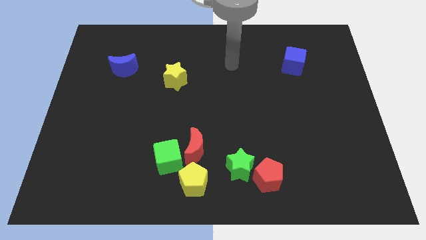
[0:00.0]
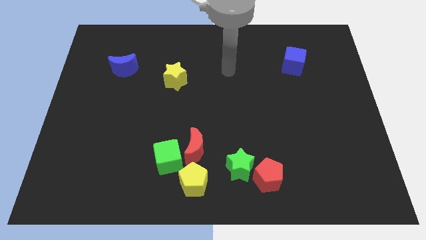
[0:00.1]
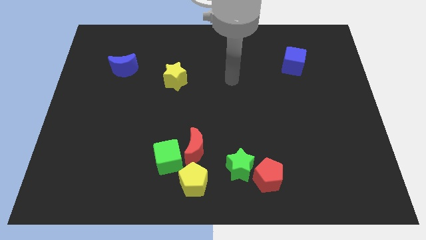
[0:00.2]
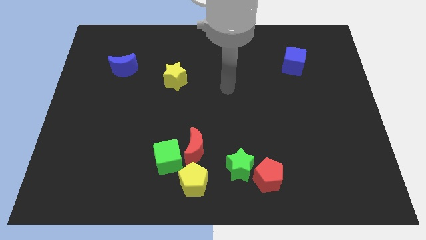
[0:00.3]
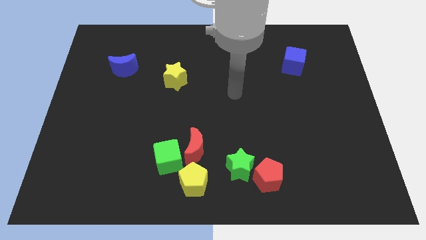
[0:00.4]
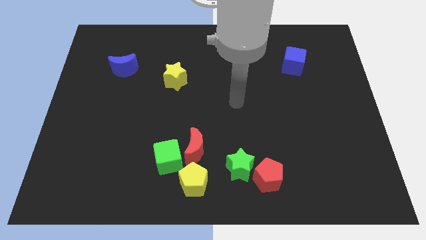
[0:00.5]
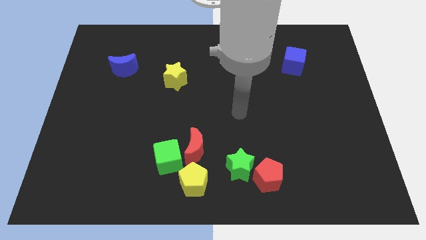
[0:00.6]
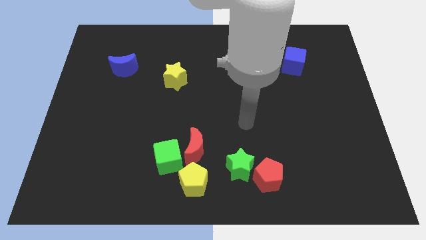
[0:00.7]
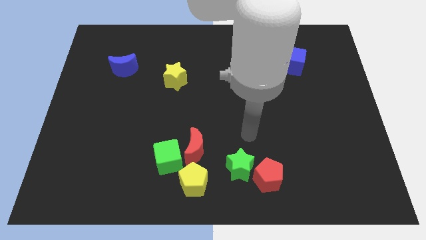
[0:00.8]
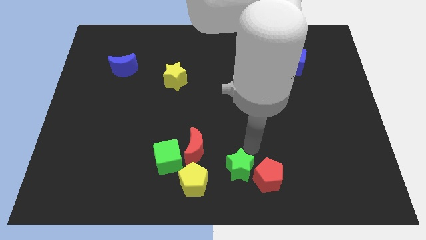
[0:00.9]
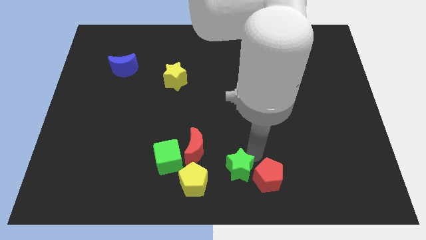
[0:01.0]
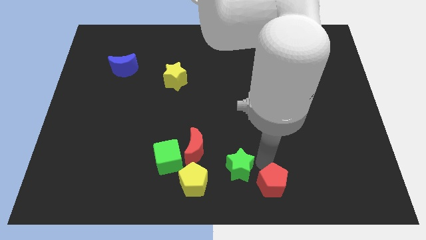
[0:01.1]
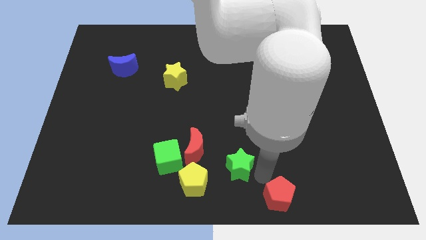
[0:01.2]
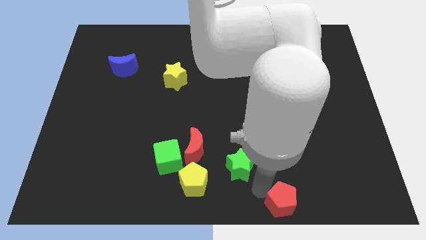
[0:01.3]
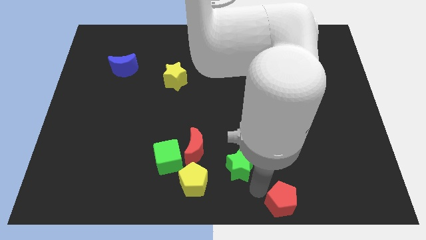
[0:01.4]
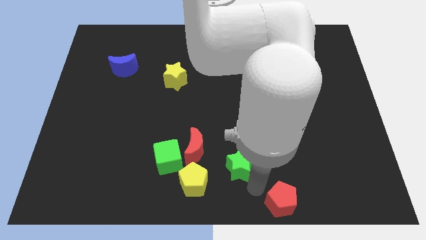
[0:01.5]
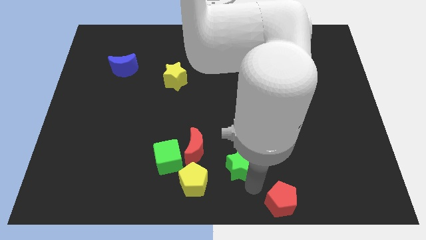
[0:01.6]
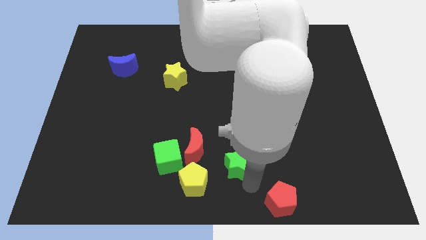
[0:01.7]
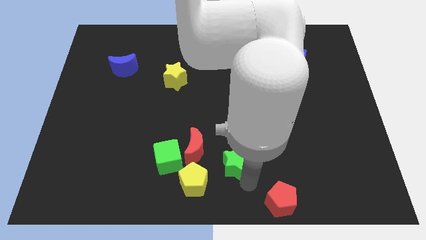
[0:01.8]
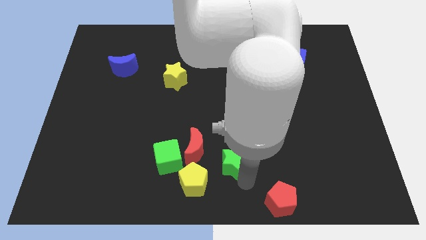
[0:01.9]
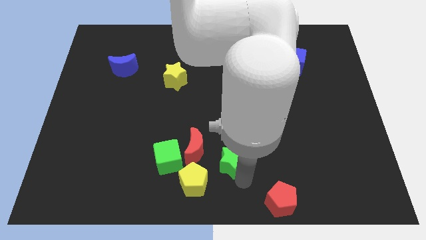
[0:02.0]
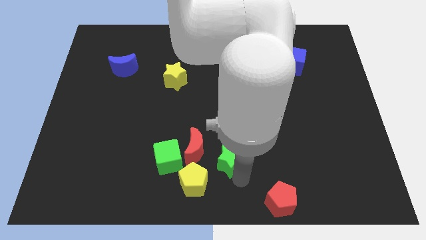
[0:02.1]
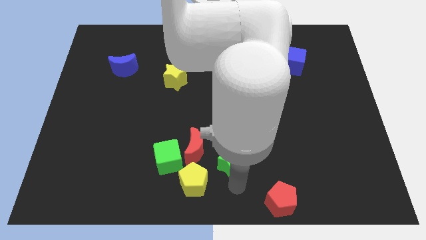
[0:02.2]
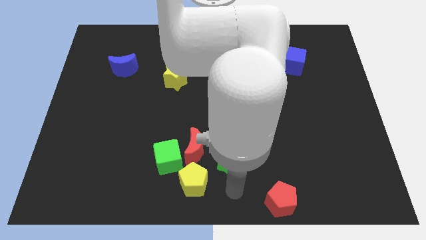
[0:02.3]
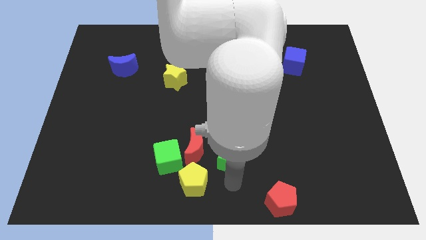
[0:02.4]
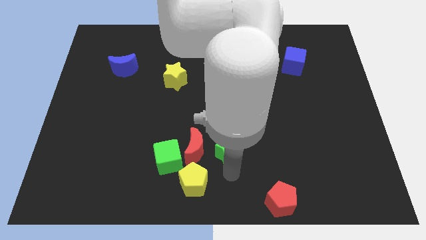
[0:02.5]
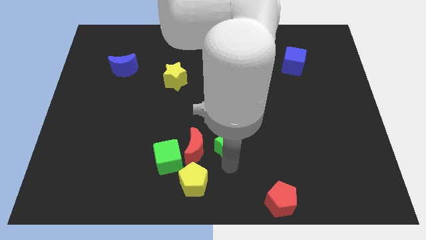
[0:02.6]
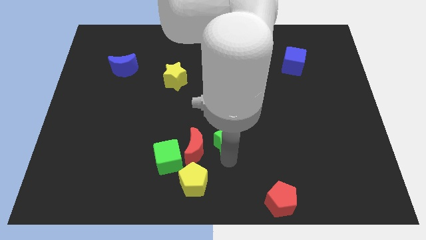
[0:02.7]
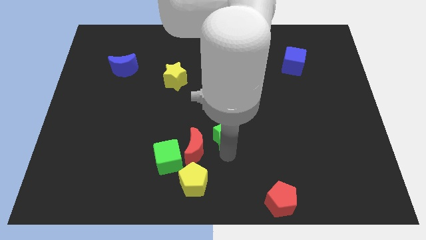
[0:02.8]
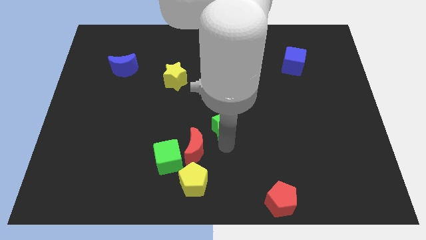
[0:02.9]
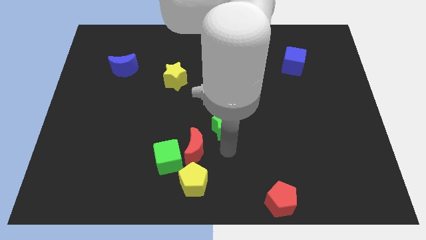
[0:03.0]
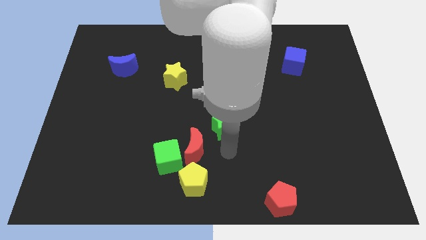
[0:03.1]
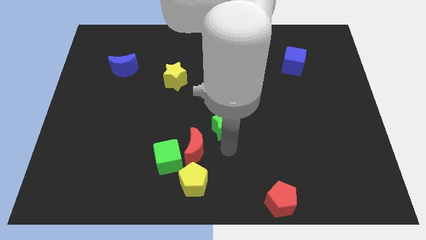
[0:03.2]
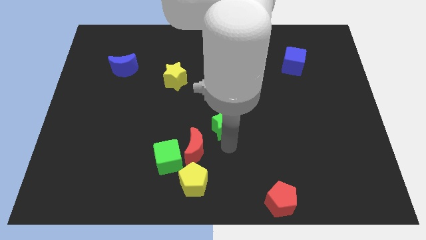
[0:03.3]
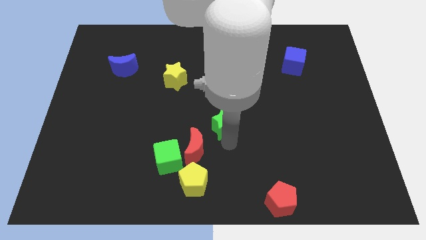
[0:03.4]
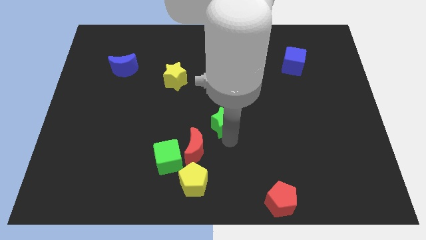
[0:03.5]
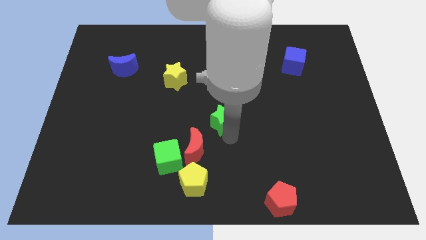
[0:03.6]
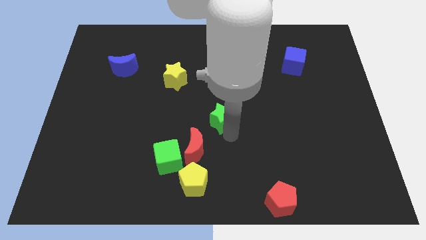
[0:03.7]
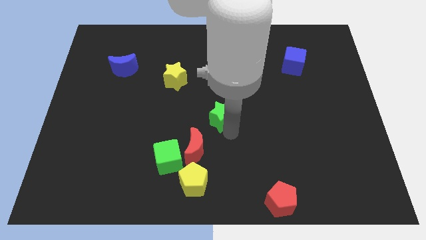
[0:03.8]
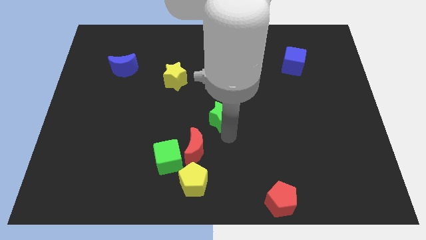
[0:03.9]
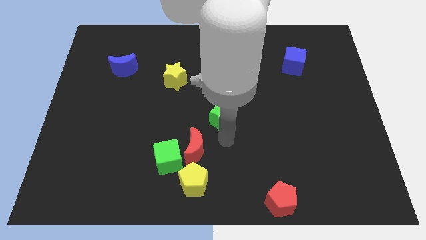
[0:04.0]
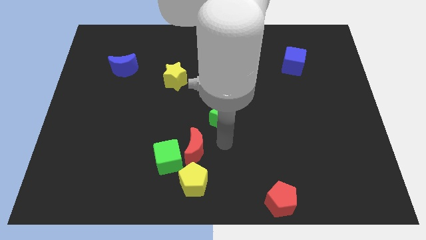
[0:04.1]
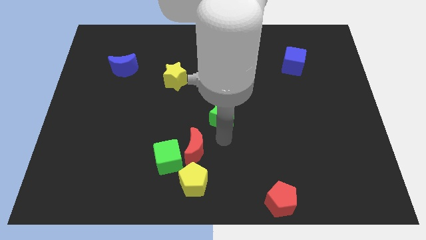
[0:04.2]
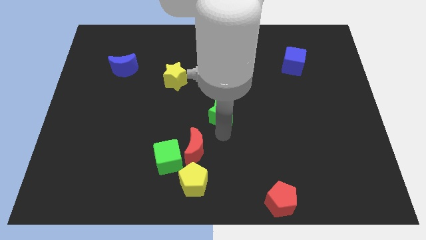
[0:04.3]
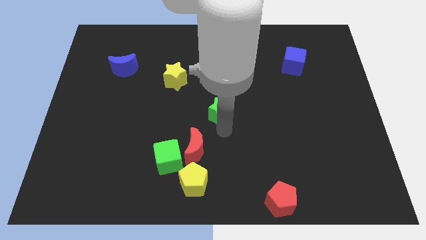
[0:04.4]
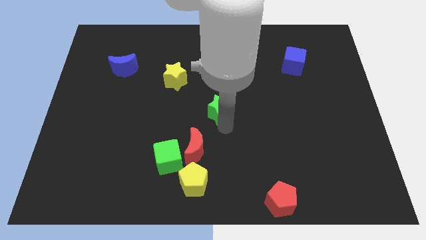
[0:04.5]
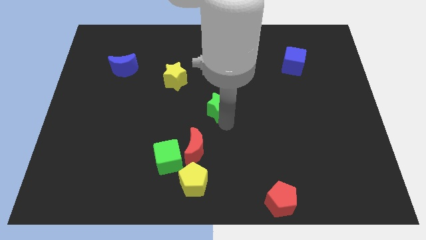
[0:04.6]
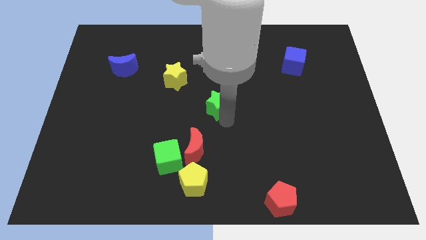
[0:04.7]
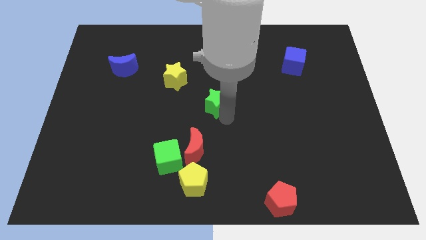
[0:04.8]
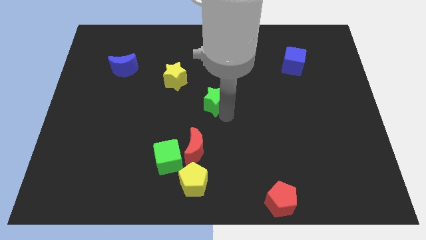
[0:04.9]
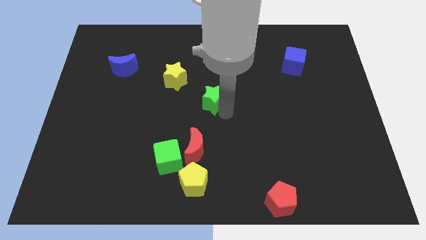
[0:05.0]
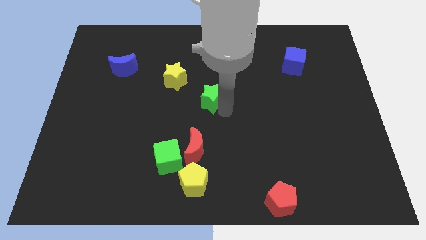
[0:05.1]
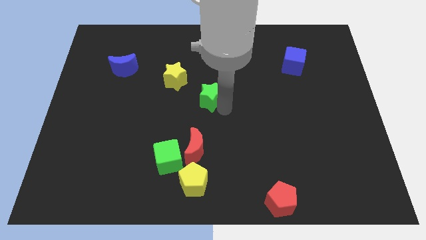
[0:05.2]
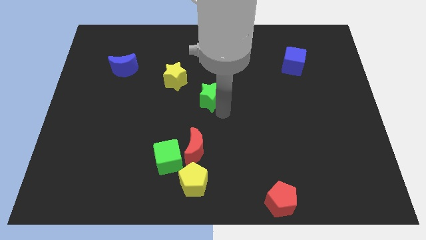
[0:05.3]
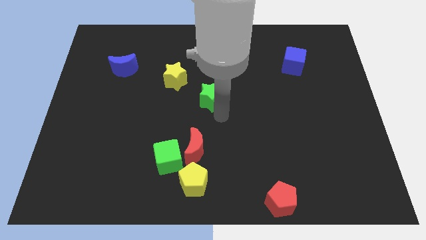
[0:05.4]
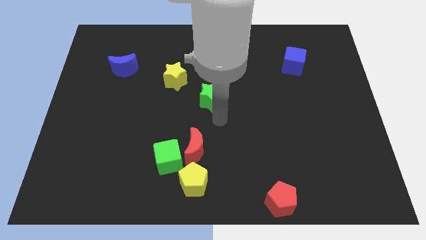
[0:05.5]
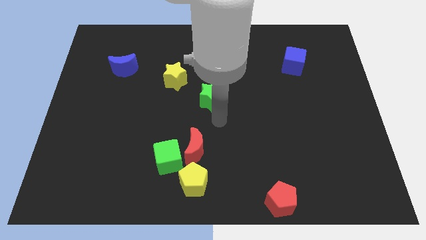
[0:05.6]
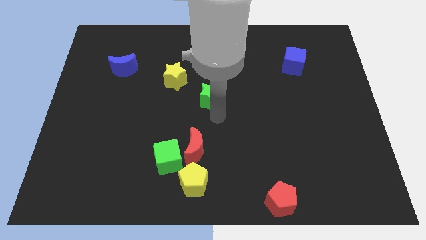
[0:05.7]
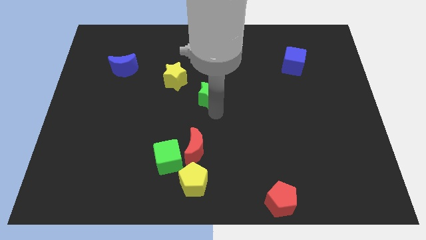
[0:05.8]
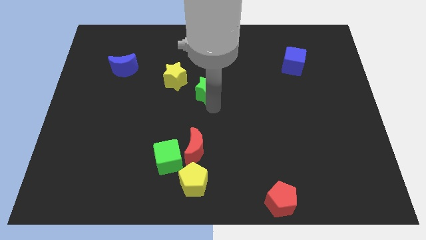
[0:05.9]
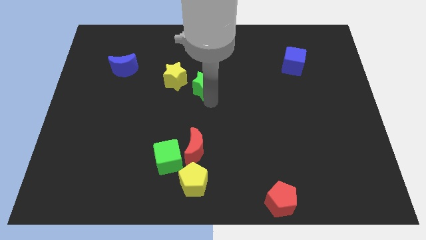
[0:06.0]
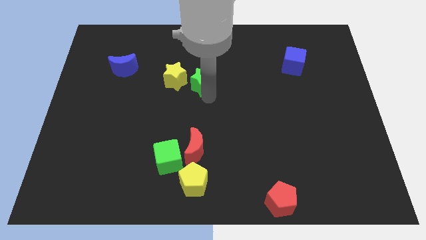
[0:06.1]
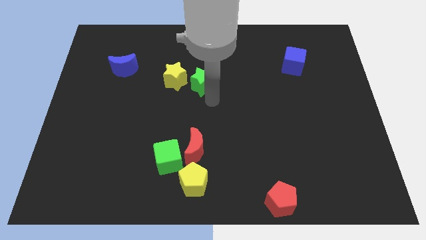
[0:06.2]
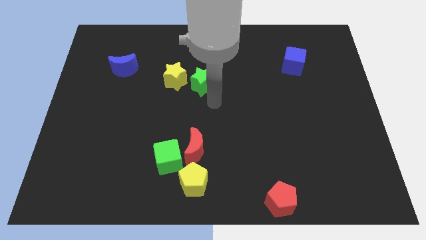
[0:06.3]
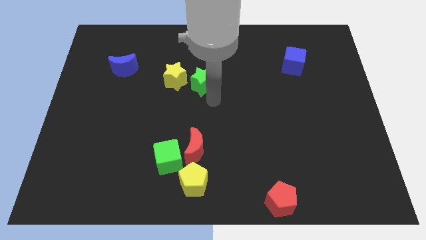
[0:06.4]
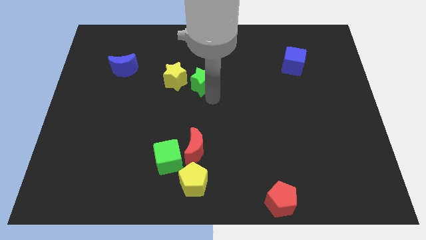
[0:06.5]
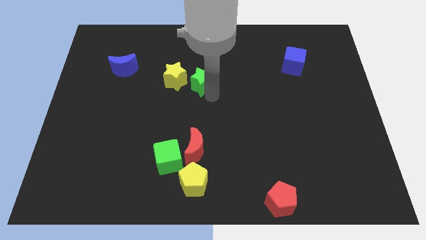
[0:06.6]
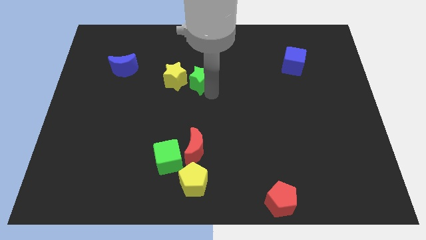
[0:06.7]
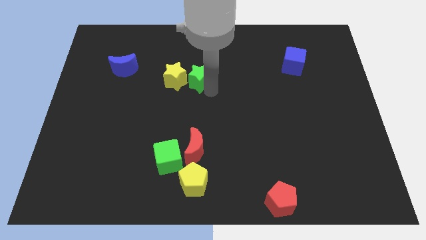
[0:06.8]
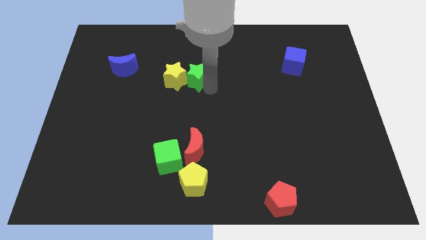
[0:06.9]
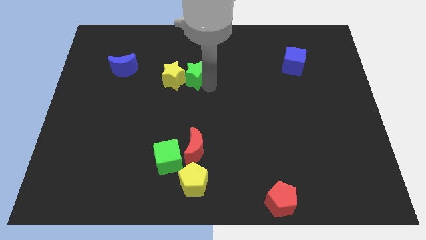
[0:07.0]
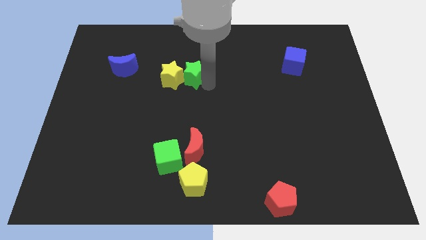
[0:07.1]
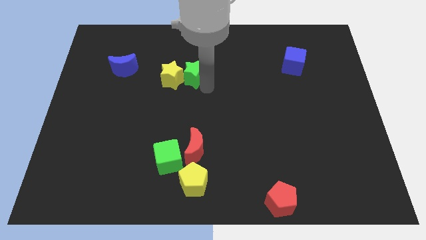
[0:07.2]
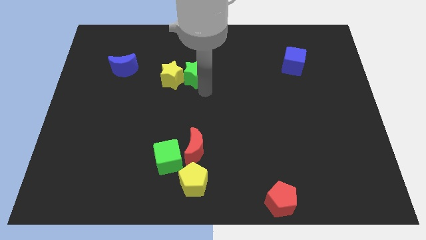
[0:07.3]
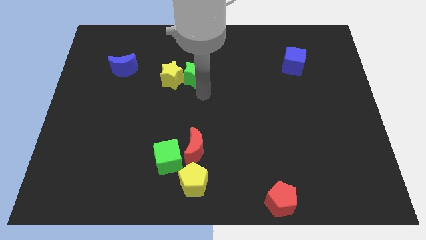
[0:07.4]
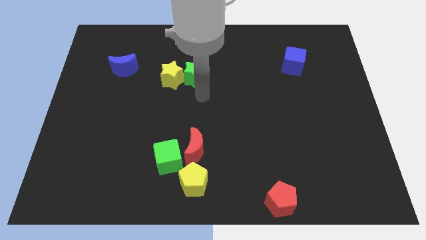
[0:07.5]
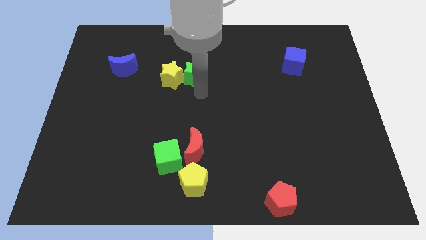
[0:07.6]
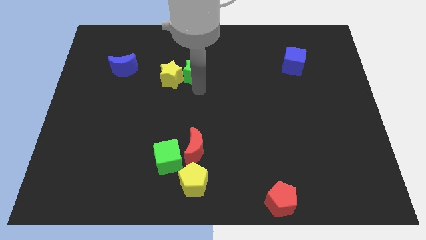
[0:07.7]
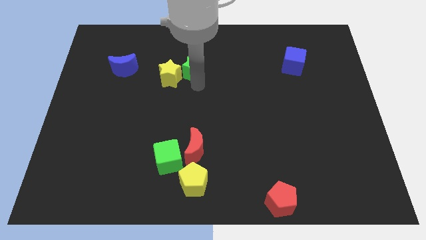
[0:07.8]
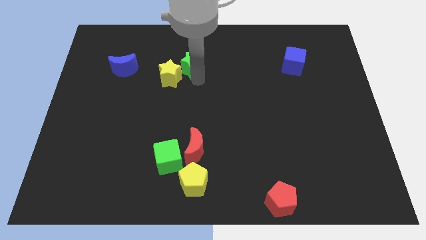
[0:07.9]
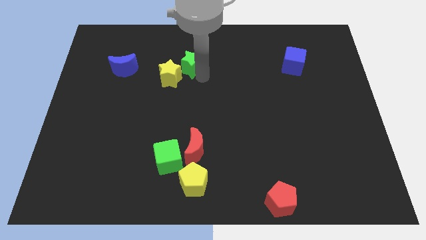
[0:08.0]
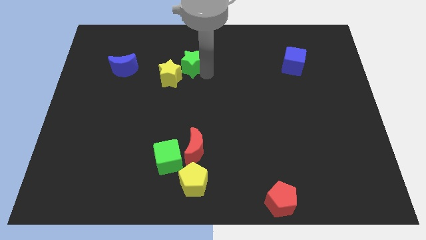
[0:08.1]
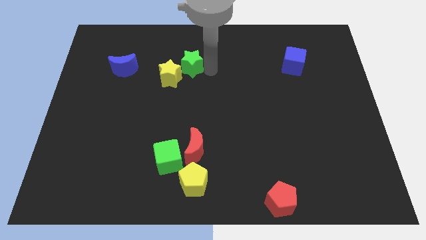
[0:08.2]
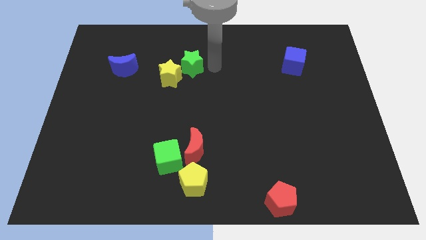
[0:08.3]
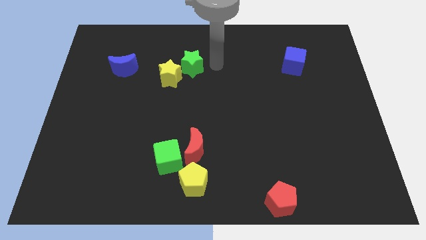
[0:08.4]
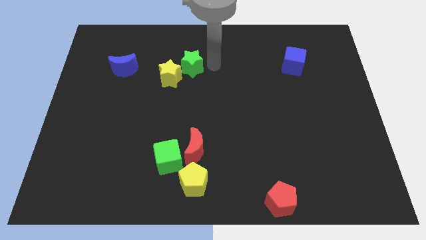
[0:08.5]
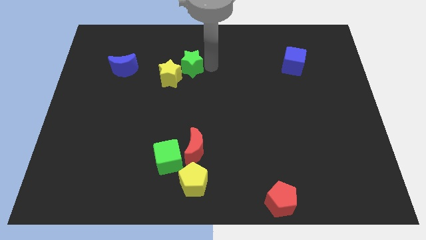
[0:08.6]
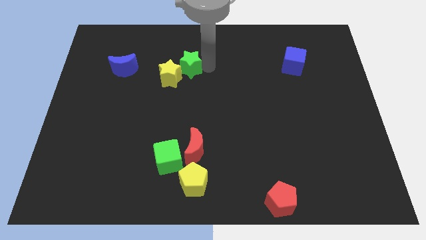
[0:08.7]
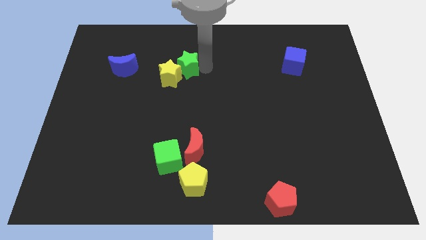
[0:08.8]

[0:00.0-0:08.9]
put the green star to the right of the blue moon
